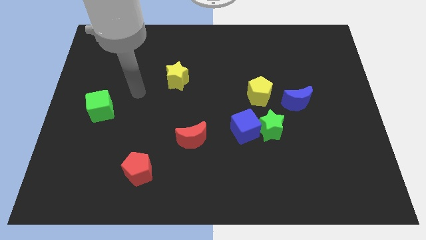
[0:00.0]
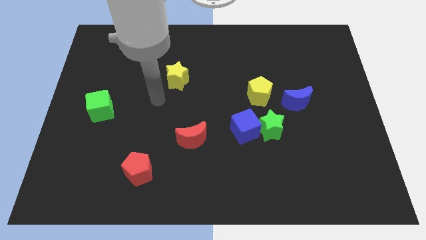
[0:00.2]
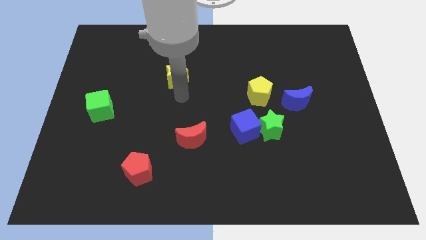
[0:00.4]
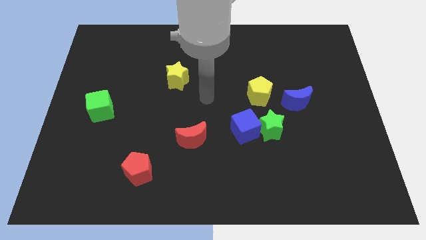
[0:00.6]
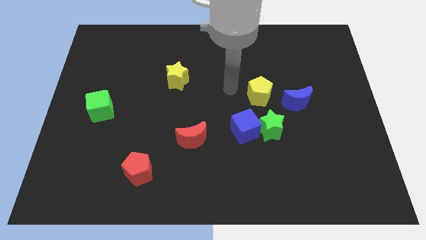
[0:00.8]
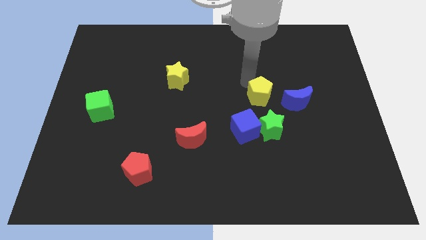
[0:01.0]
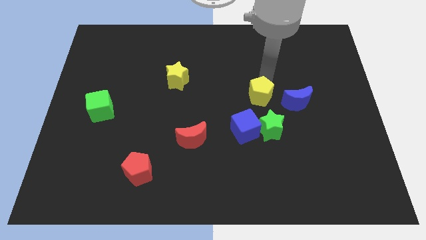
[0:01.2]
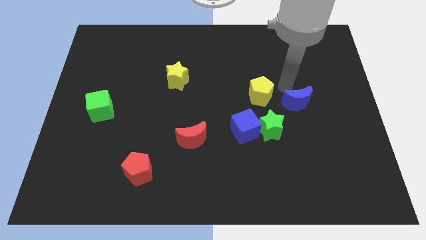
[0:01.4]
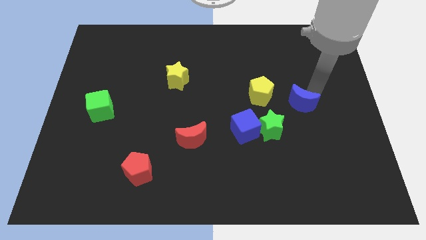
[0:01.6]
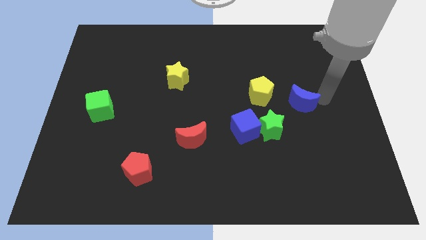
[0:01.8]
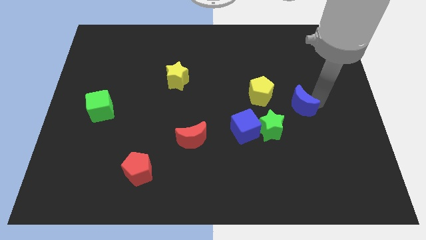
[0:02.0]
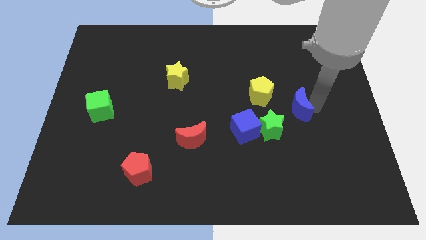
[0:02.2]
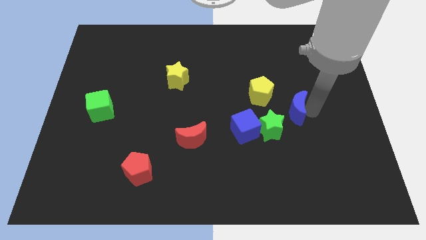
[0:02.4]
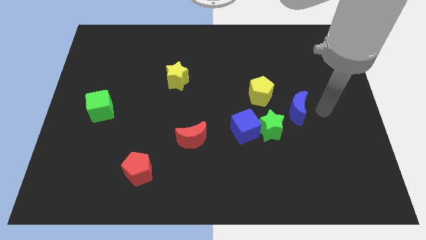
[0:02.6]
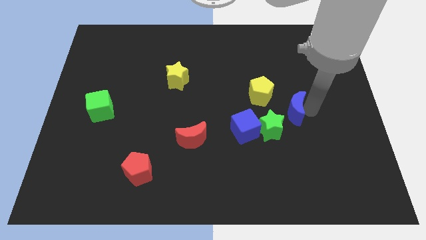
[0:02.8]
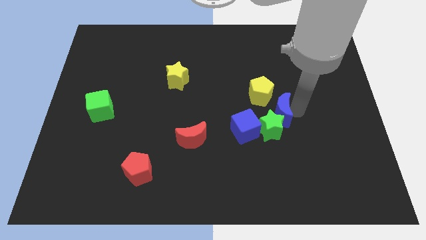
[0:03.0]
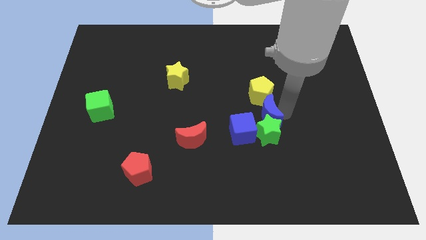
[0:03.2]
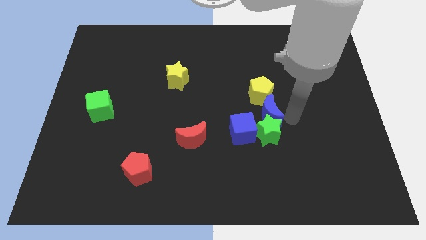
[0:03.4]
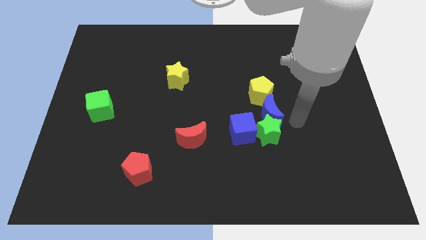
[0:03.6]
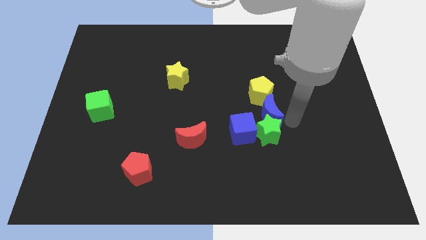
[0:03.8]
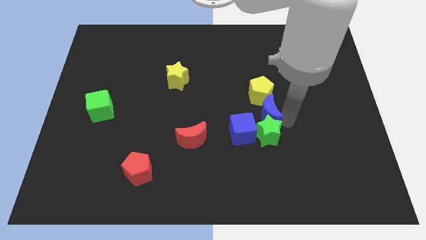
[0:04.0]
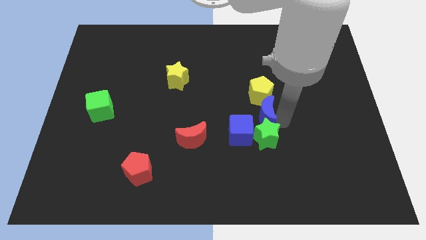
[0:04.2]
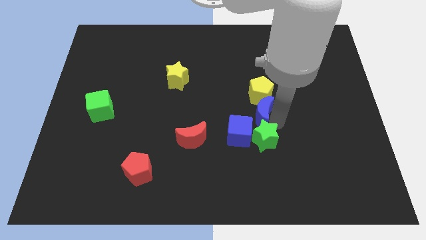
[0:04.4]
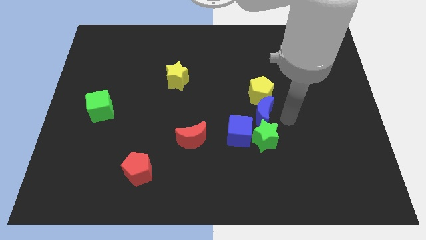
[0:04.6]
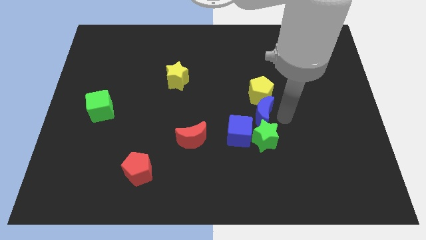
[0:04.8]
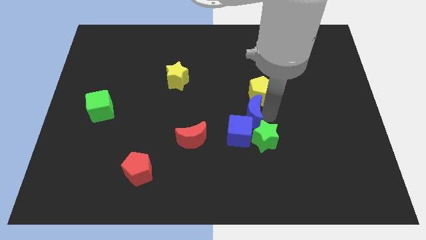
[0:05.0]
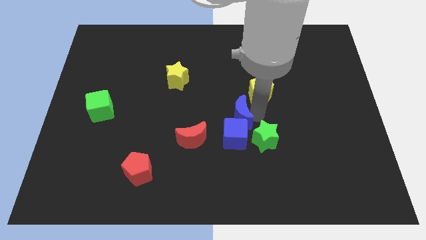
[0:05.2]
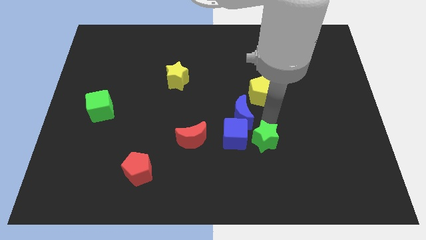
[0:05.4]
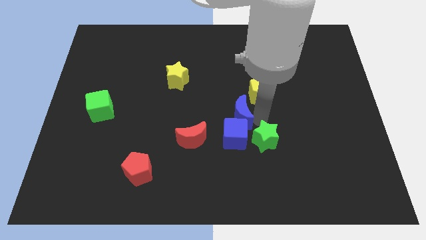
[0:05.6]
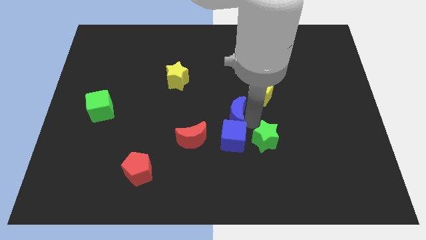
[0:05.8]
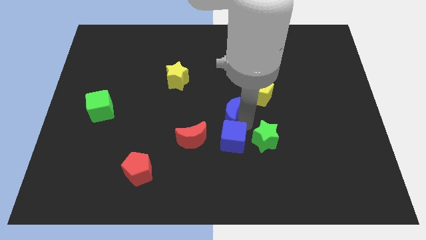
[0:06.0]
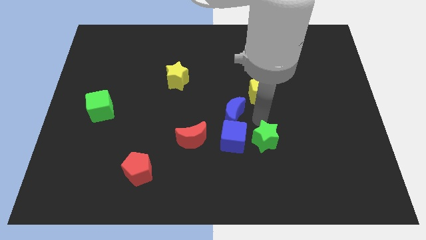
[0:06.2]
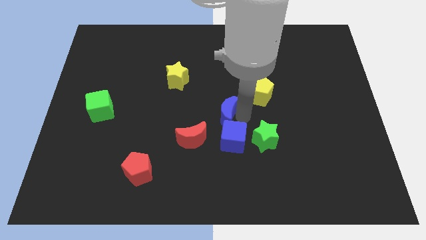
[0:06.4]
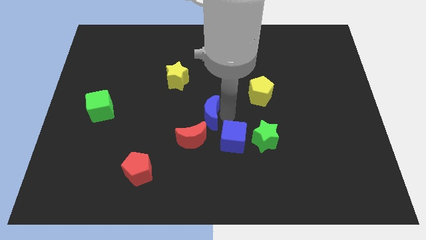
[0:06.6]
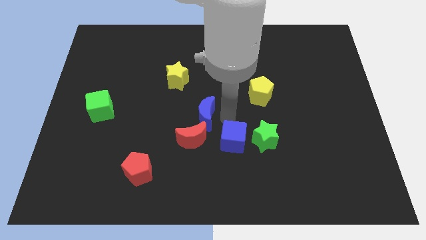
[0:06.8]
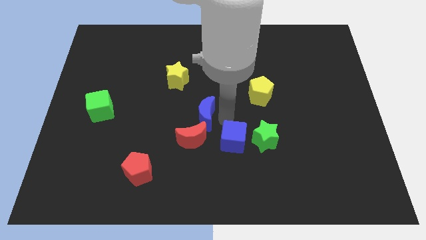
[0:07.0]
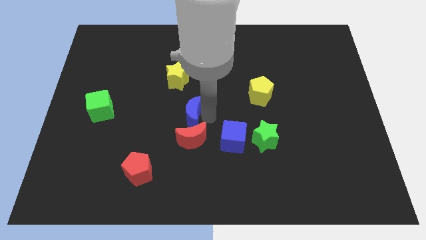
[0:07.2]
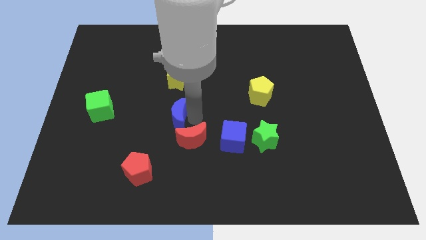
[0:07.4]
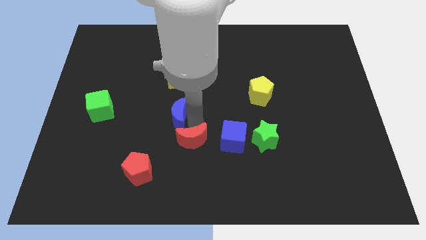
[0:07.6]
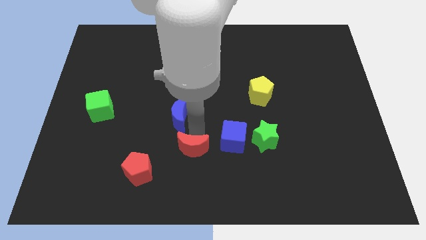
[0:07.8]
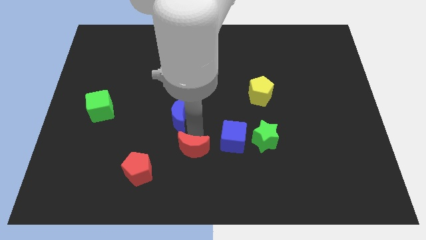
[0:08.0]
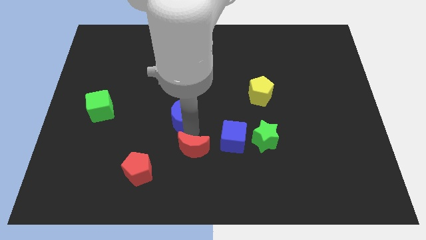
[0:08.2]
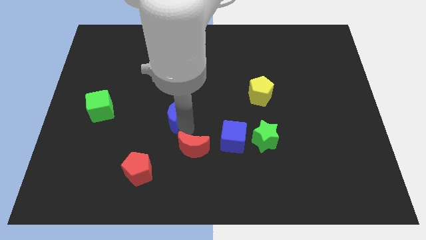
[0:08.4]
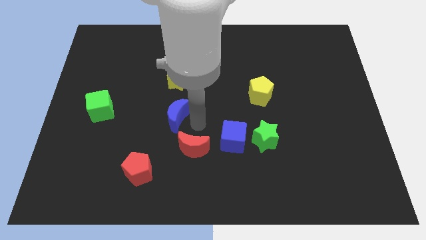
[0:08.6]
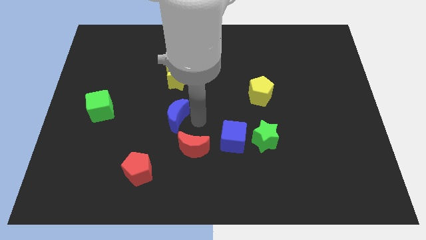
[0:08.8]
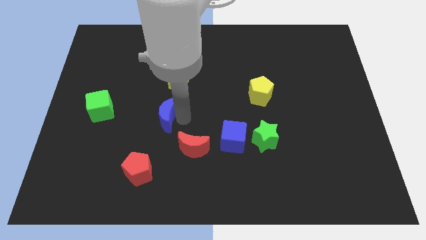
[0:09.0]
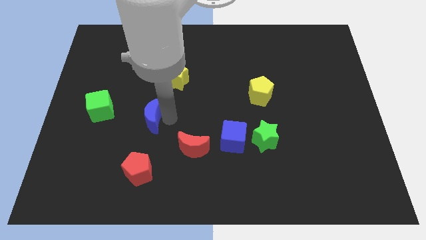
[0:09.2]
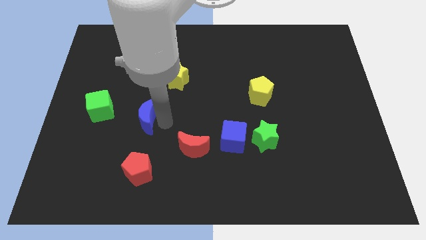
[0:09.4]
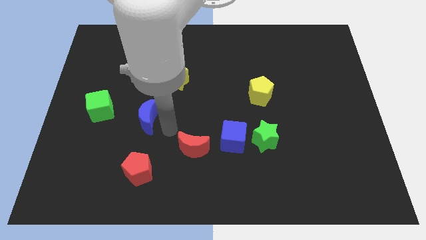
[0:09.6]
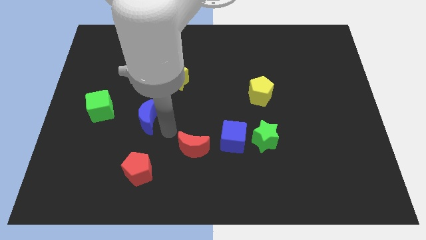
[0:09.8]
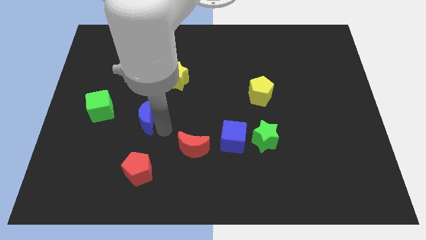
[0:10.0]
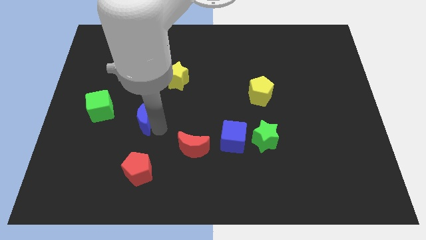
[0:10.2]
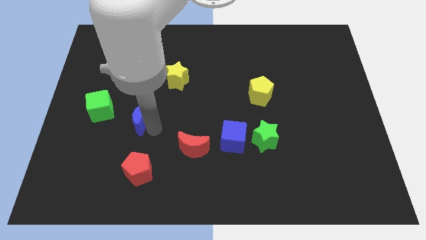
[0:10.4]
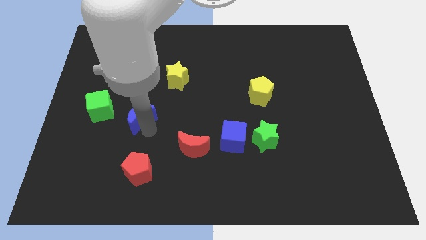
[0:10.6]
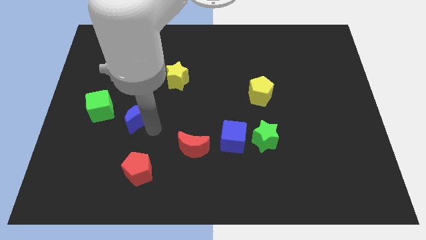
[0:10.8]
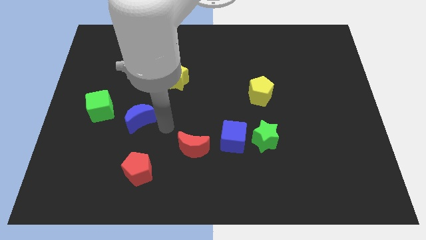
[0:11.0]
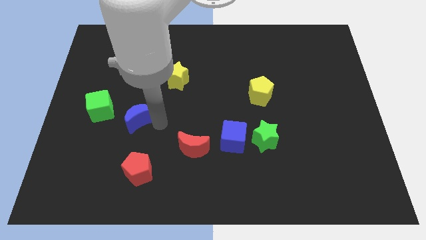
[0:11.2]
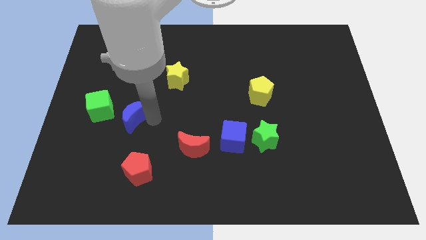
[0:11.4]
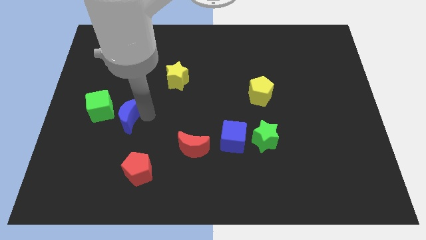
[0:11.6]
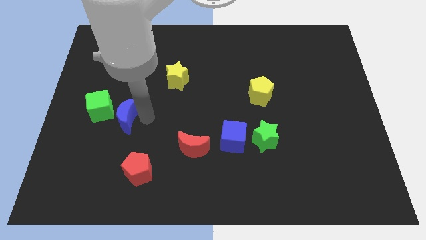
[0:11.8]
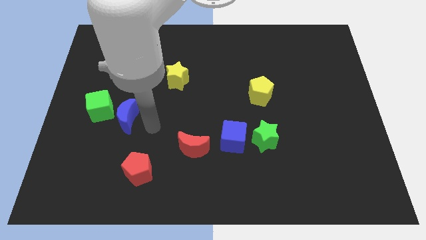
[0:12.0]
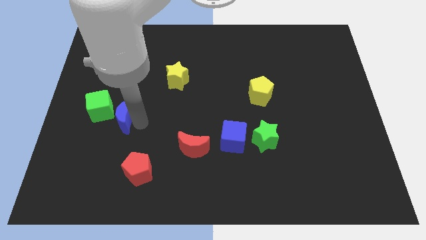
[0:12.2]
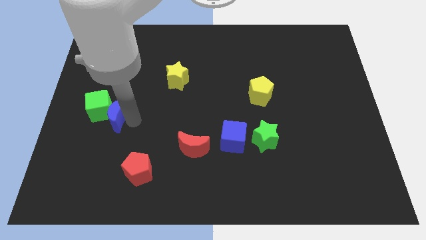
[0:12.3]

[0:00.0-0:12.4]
move the blue moon towards the green cube
